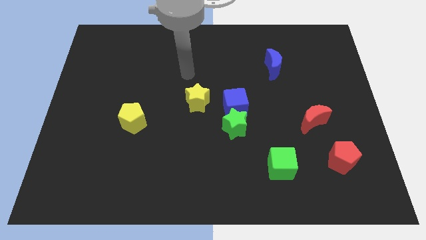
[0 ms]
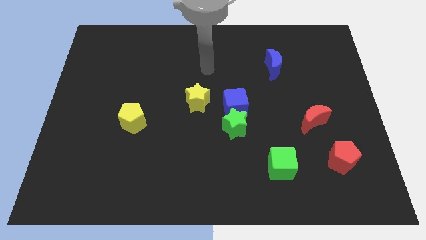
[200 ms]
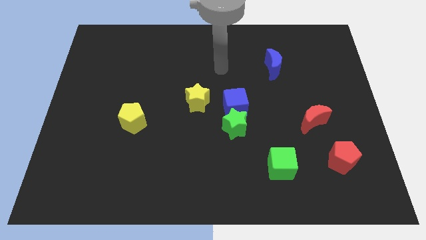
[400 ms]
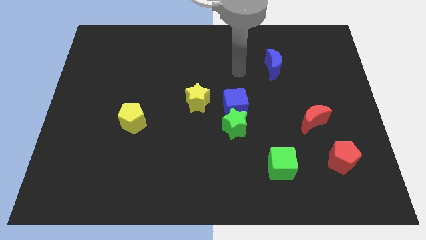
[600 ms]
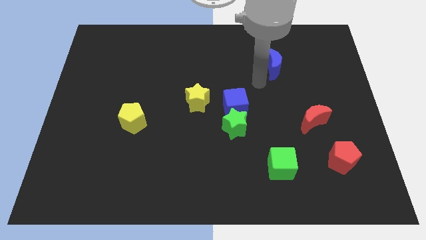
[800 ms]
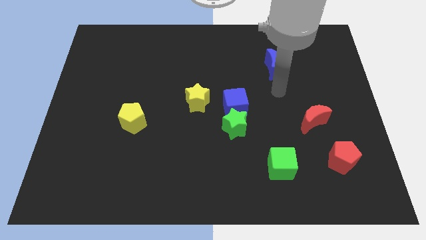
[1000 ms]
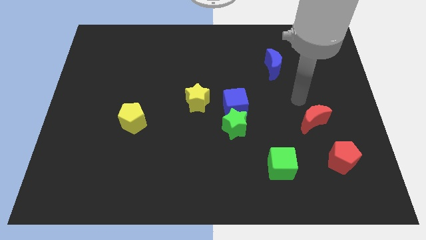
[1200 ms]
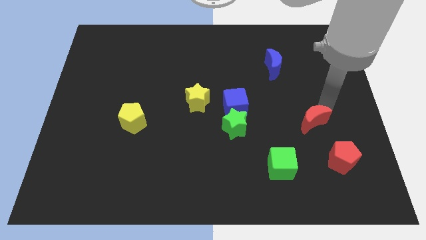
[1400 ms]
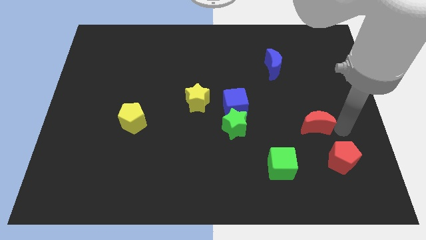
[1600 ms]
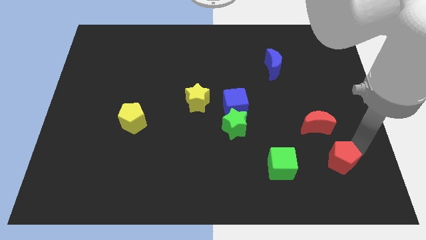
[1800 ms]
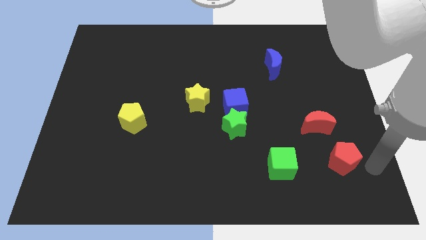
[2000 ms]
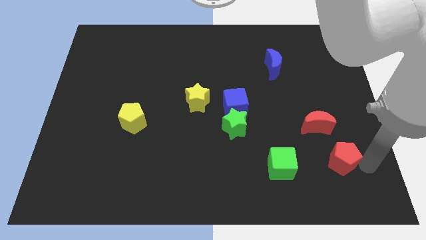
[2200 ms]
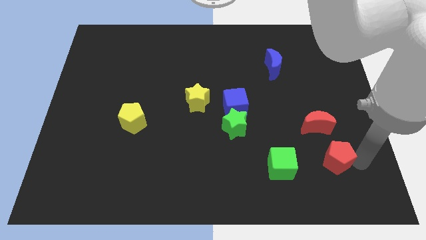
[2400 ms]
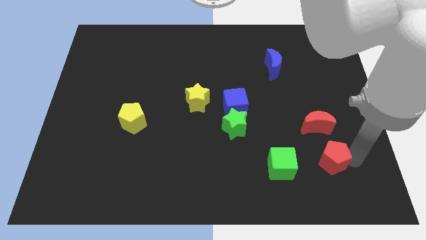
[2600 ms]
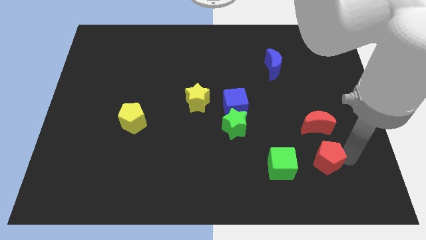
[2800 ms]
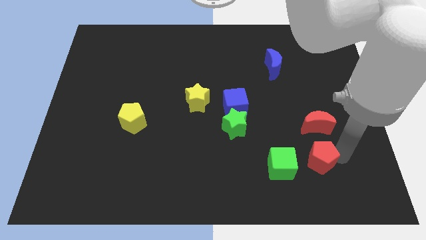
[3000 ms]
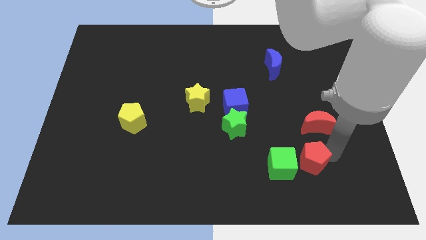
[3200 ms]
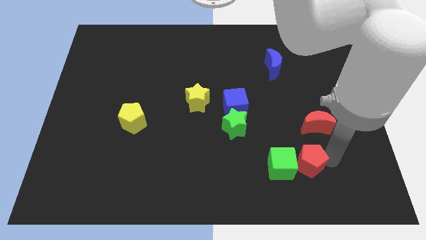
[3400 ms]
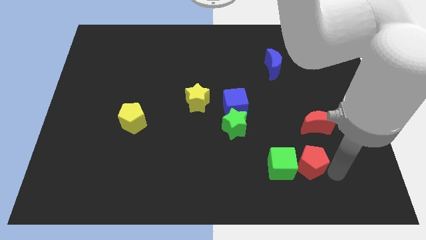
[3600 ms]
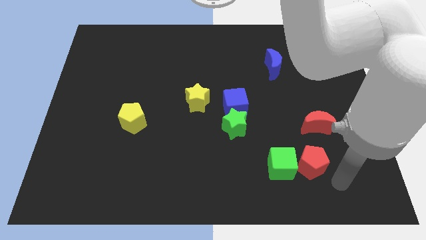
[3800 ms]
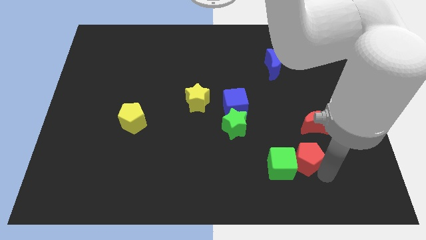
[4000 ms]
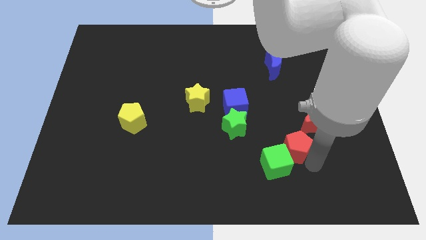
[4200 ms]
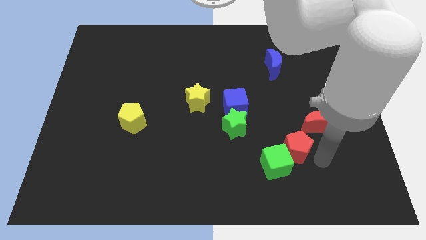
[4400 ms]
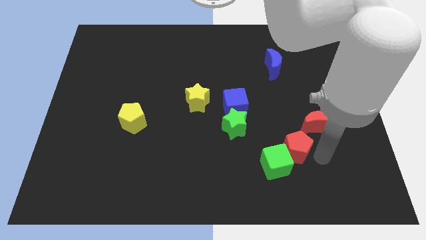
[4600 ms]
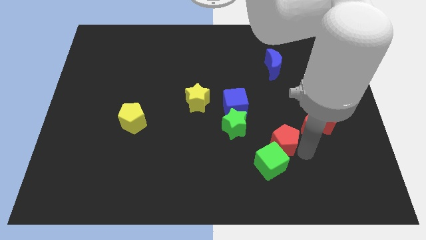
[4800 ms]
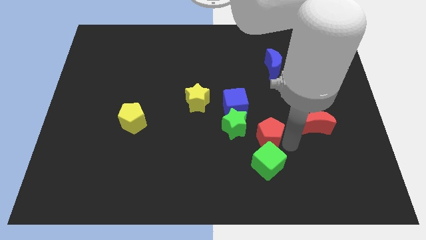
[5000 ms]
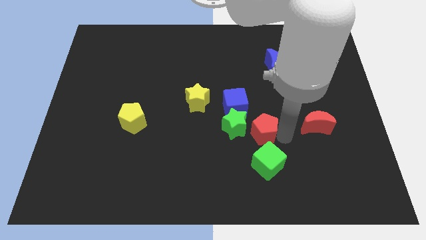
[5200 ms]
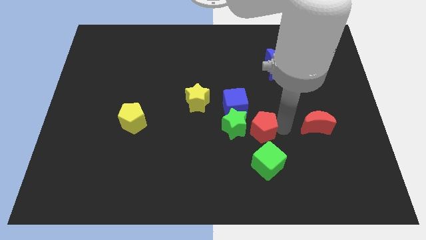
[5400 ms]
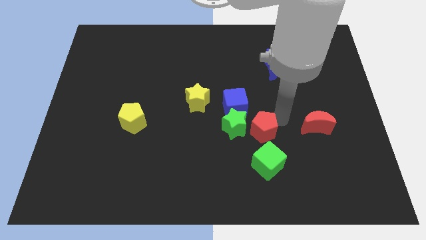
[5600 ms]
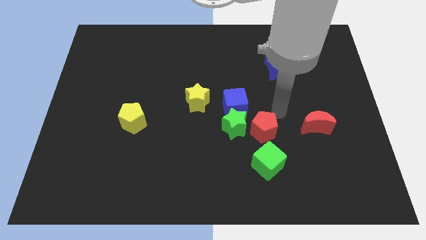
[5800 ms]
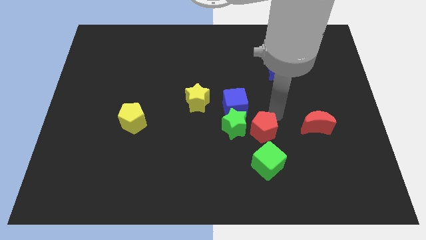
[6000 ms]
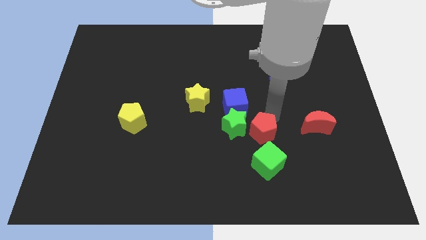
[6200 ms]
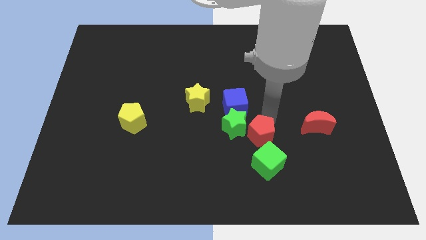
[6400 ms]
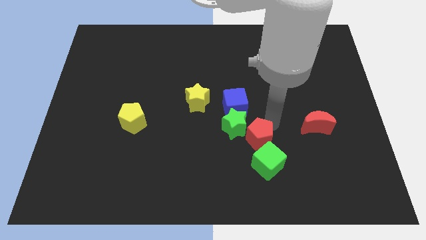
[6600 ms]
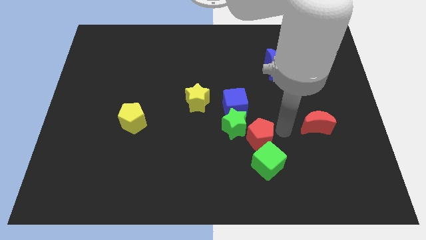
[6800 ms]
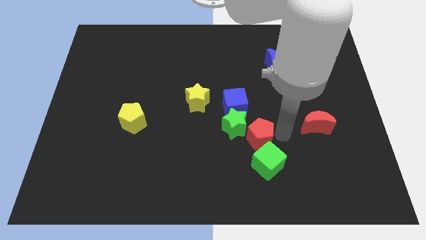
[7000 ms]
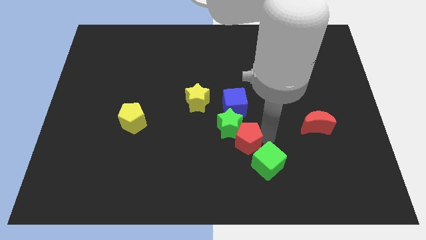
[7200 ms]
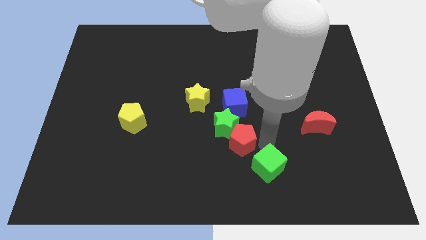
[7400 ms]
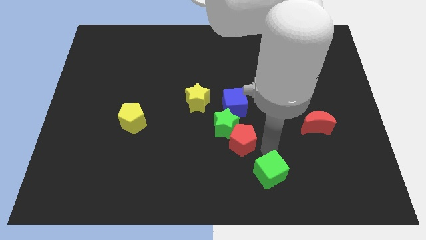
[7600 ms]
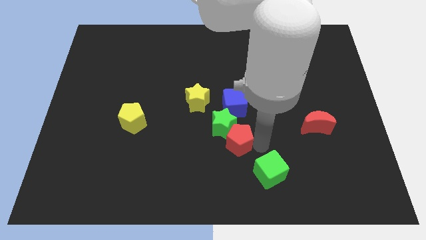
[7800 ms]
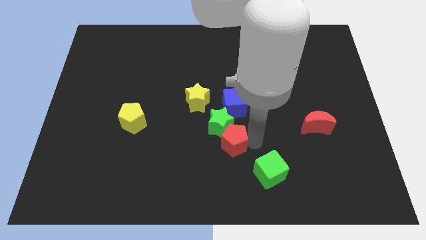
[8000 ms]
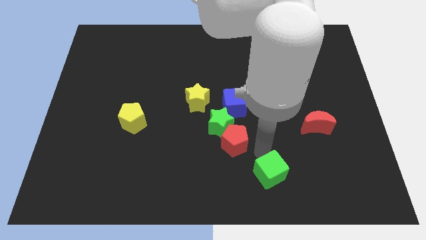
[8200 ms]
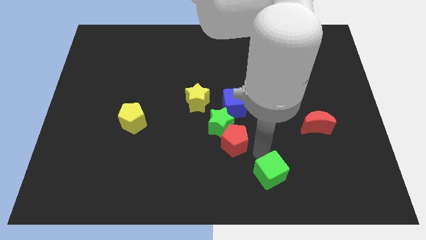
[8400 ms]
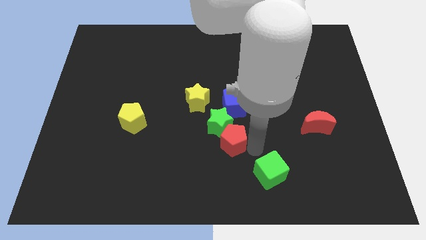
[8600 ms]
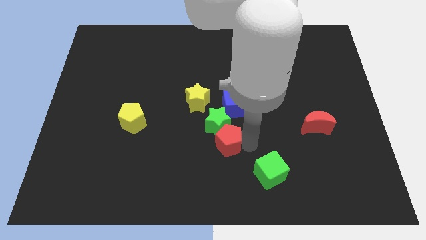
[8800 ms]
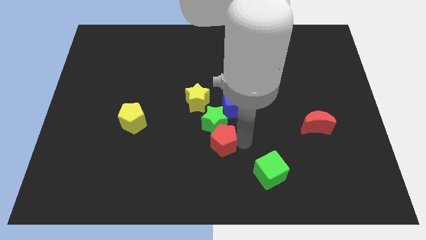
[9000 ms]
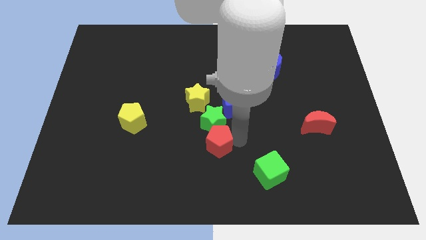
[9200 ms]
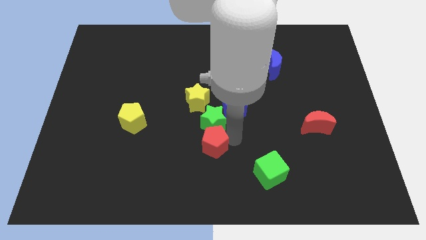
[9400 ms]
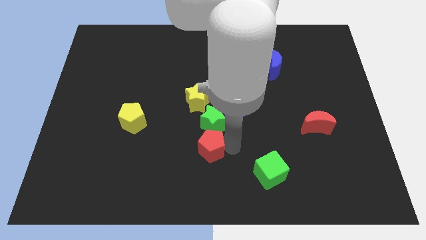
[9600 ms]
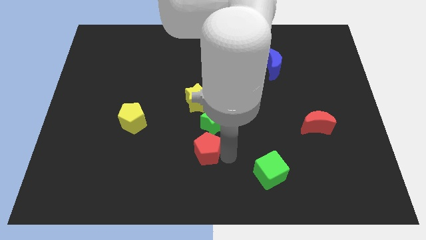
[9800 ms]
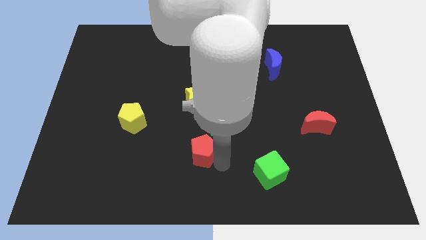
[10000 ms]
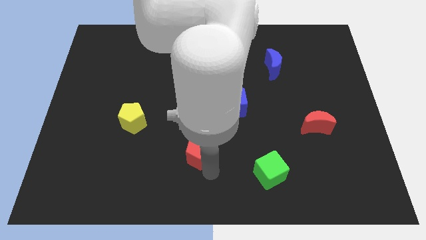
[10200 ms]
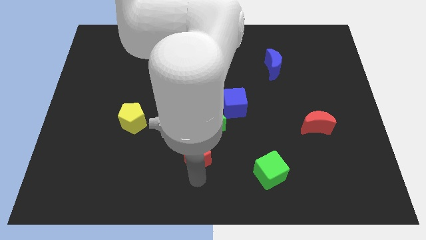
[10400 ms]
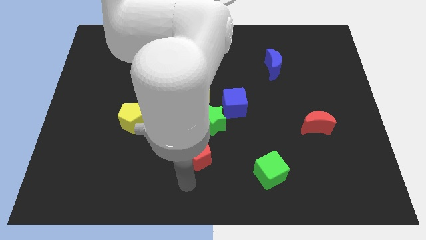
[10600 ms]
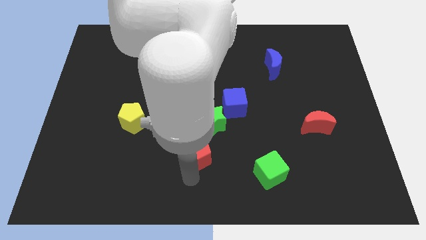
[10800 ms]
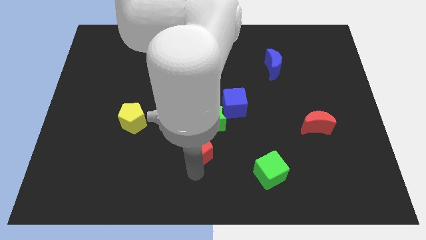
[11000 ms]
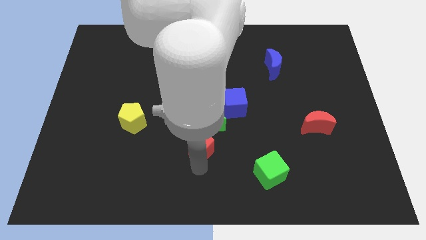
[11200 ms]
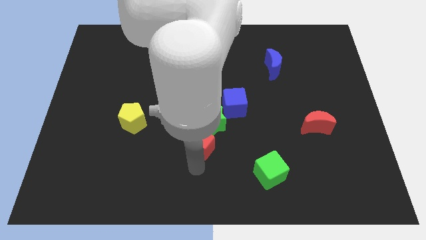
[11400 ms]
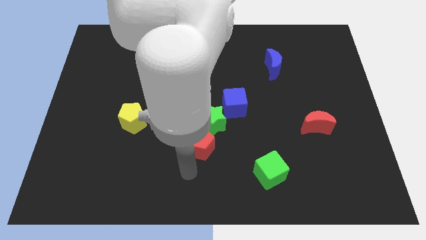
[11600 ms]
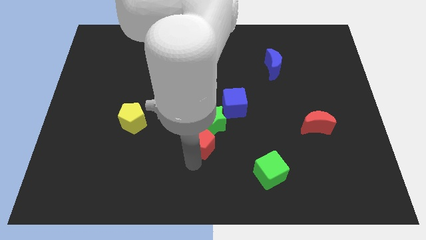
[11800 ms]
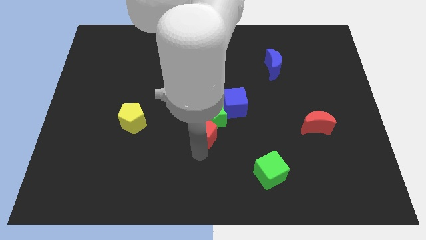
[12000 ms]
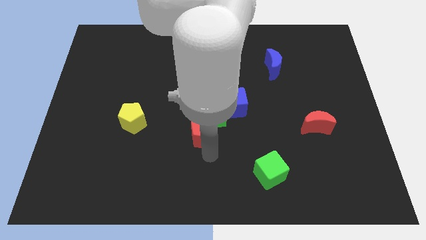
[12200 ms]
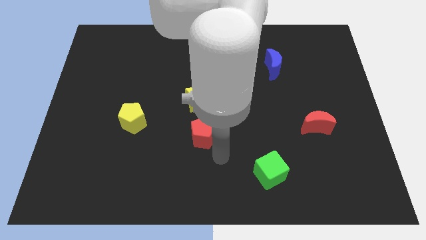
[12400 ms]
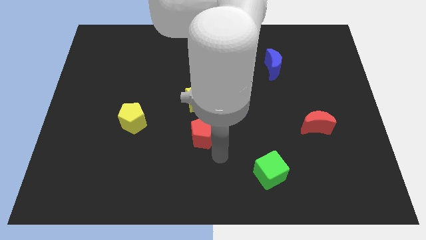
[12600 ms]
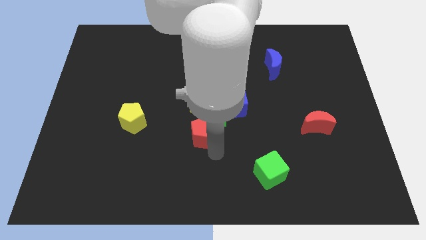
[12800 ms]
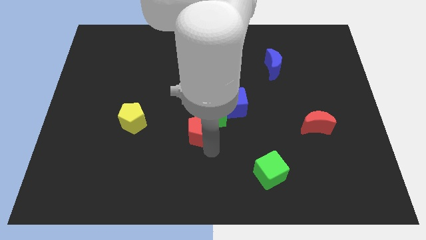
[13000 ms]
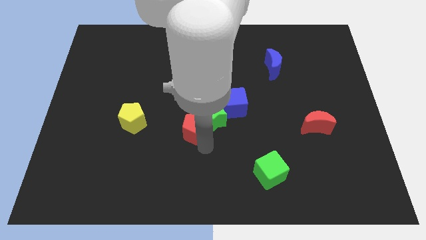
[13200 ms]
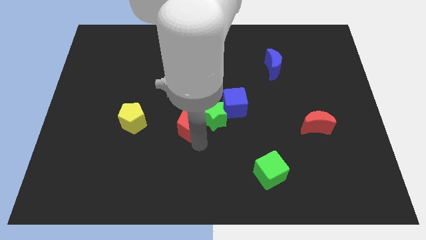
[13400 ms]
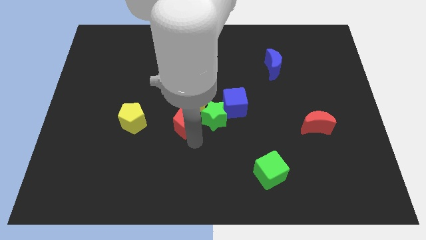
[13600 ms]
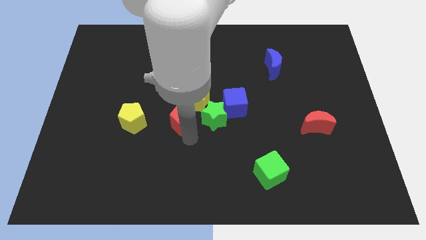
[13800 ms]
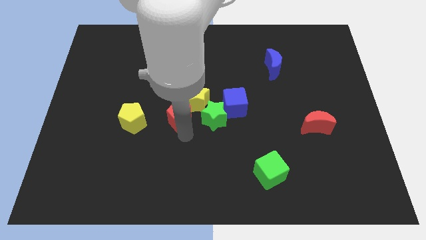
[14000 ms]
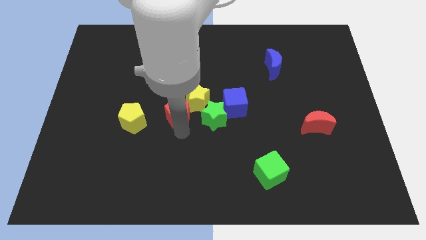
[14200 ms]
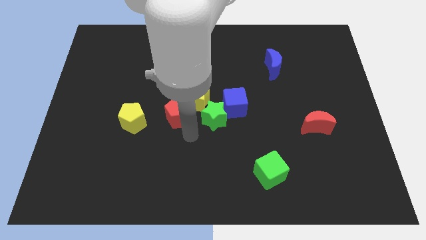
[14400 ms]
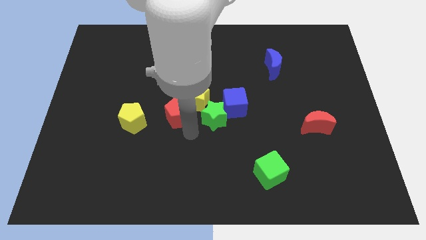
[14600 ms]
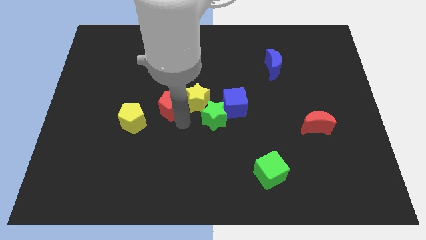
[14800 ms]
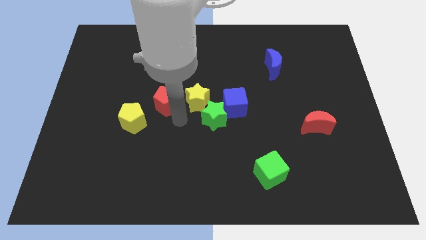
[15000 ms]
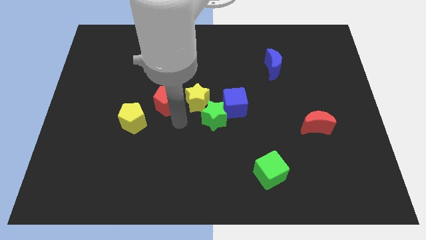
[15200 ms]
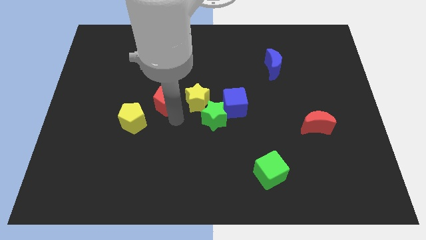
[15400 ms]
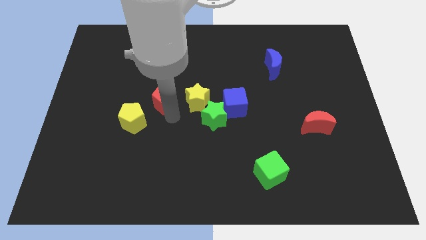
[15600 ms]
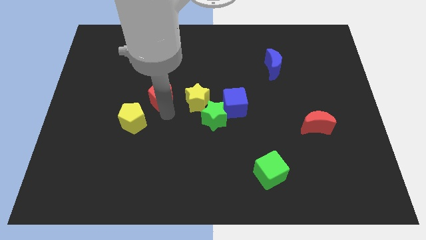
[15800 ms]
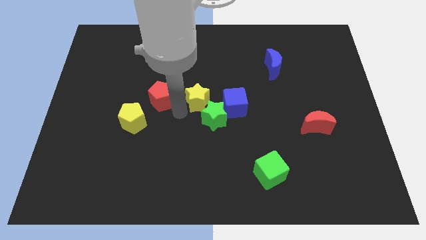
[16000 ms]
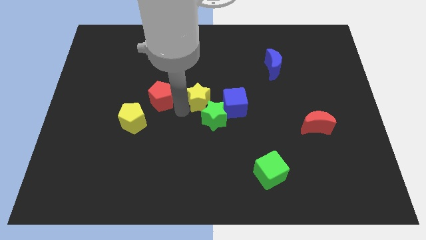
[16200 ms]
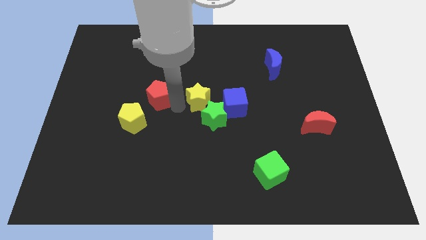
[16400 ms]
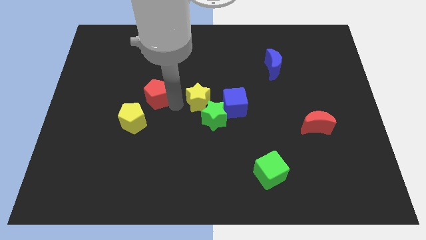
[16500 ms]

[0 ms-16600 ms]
move the red pentagon above the yellow pentagon
